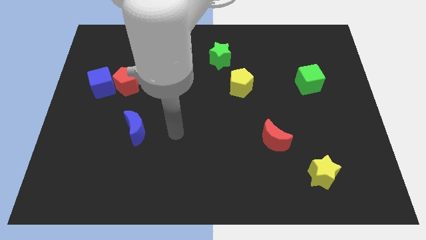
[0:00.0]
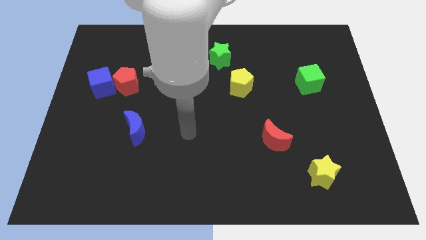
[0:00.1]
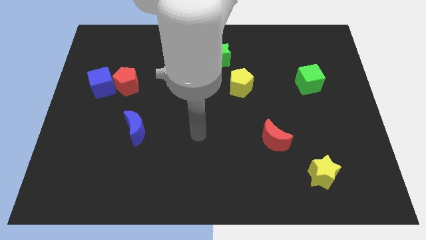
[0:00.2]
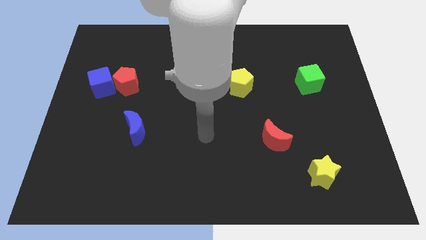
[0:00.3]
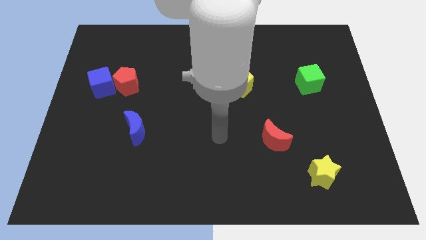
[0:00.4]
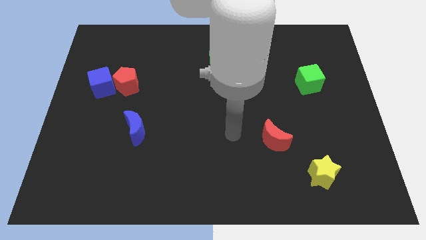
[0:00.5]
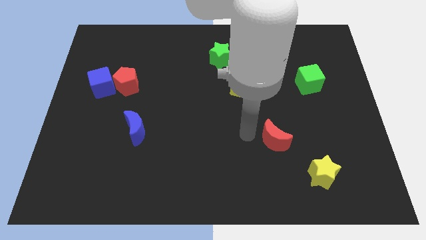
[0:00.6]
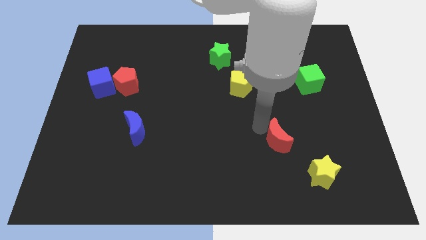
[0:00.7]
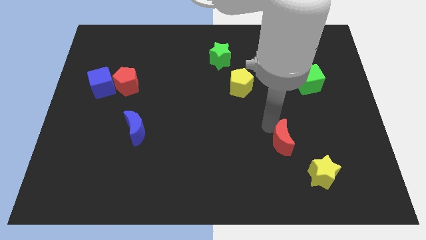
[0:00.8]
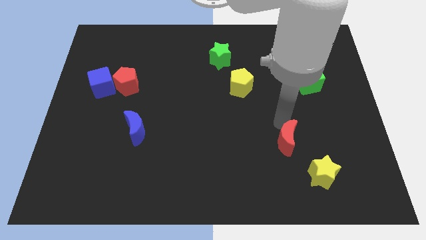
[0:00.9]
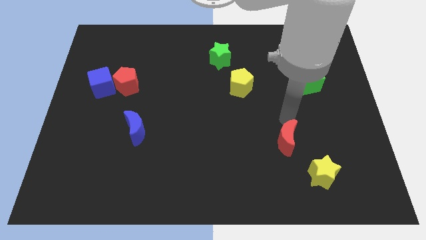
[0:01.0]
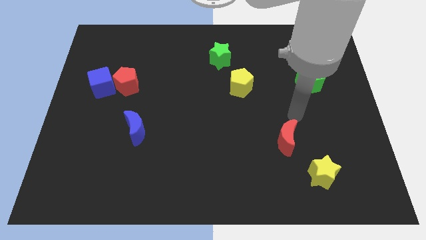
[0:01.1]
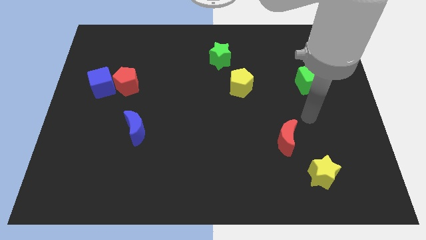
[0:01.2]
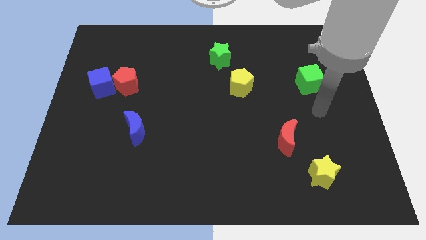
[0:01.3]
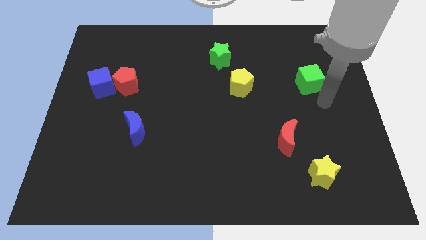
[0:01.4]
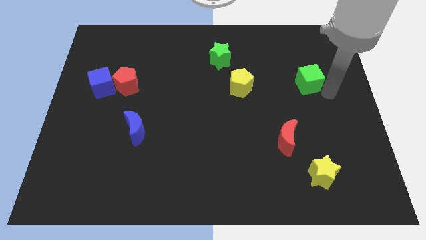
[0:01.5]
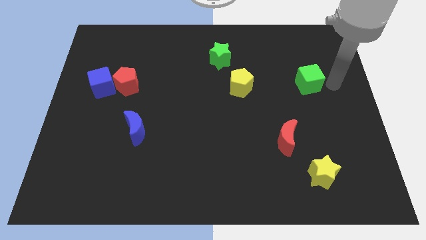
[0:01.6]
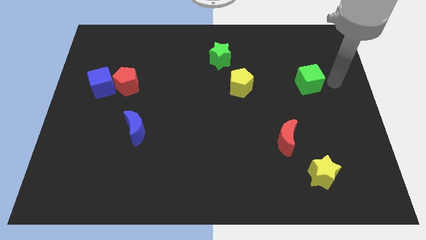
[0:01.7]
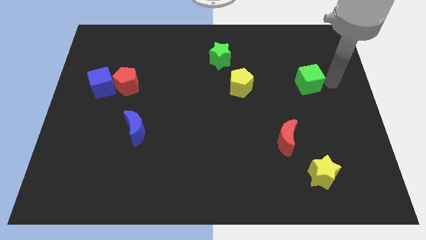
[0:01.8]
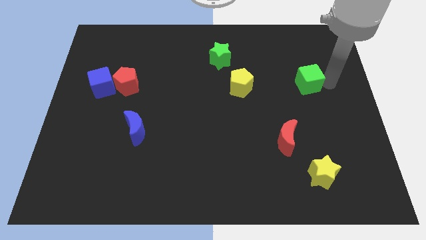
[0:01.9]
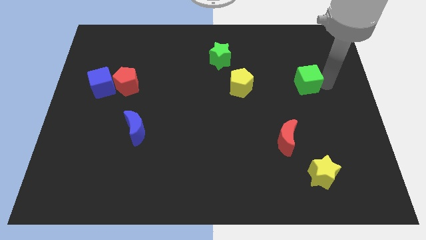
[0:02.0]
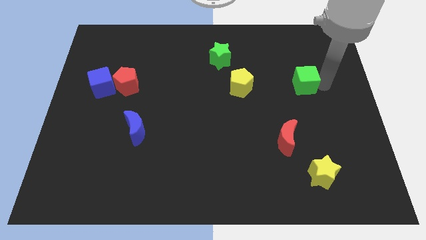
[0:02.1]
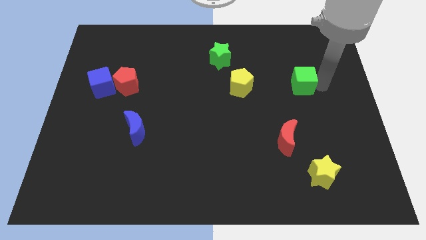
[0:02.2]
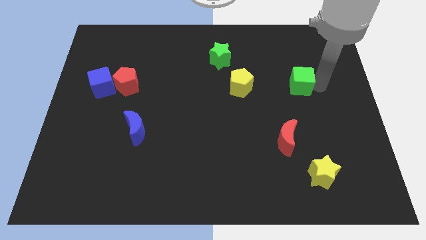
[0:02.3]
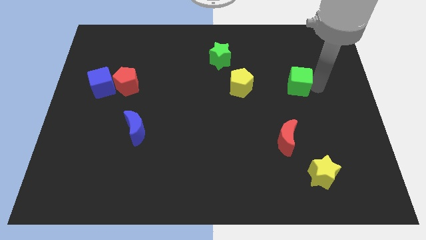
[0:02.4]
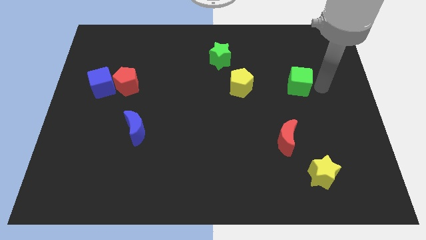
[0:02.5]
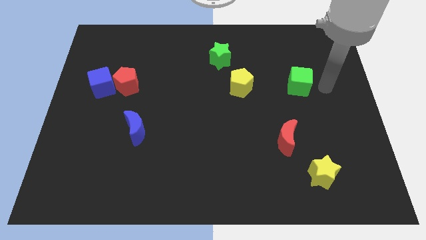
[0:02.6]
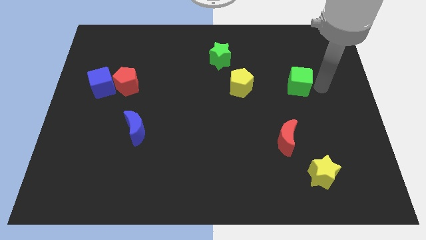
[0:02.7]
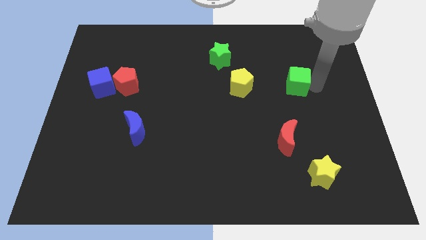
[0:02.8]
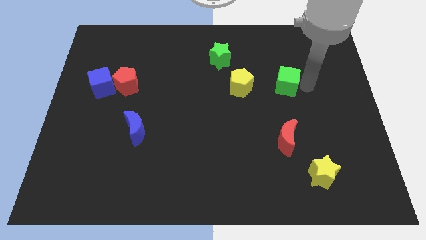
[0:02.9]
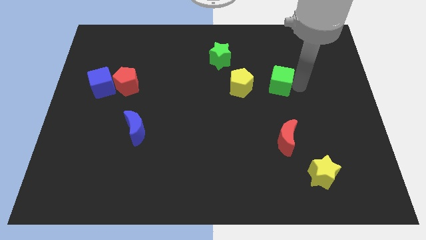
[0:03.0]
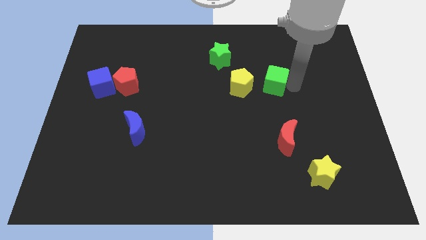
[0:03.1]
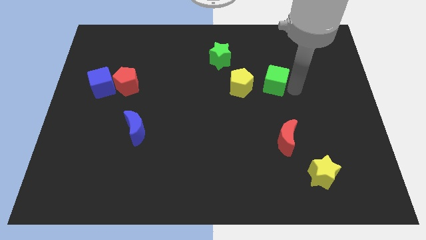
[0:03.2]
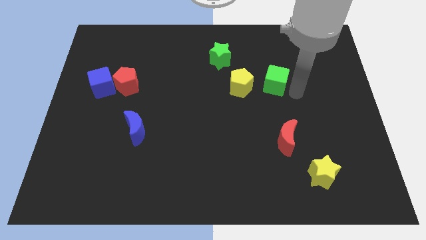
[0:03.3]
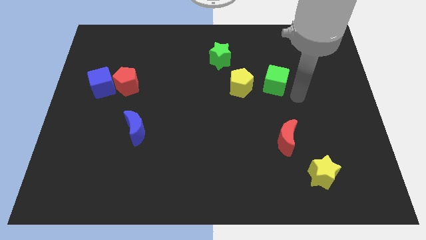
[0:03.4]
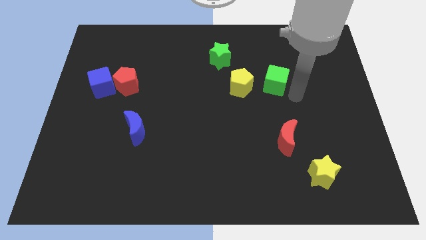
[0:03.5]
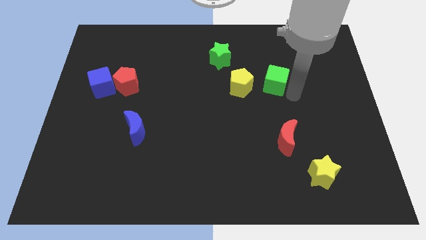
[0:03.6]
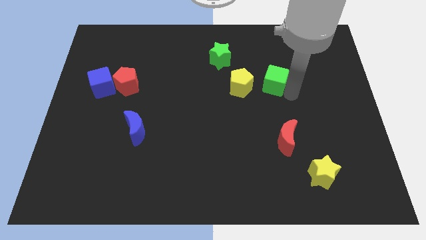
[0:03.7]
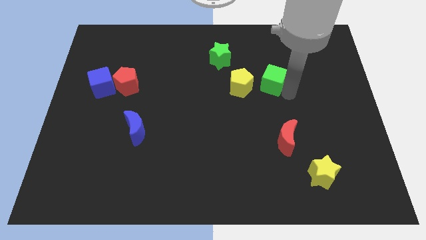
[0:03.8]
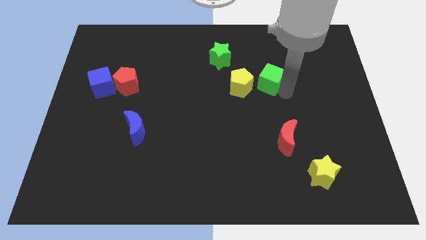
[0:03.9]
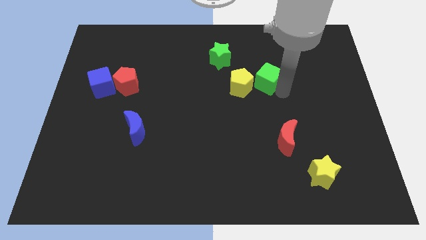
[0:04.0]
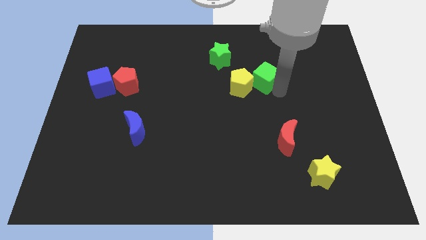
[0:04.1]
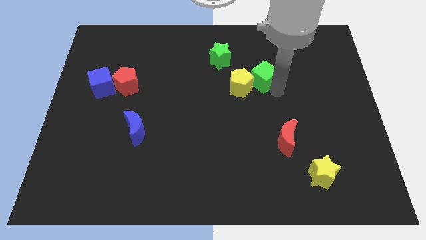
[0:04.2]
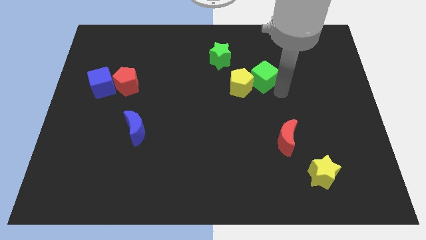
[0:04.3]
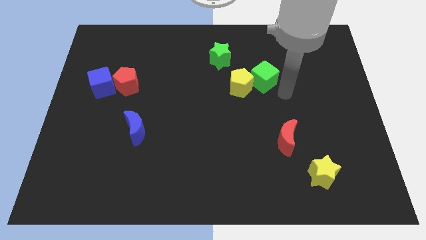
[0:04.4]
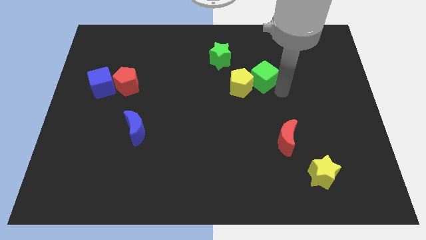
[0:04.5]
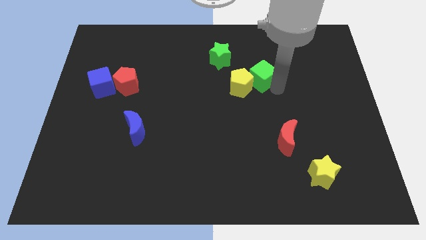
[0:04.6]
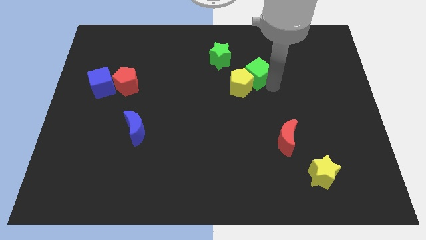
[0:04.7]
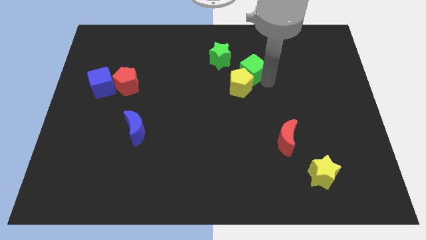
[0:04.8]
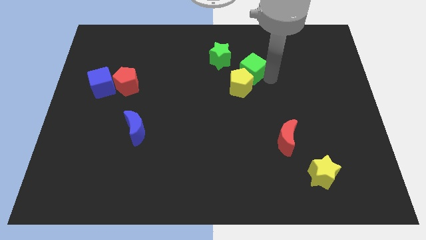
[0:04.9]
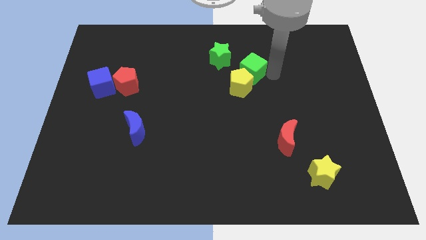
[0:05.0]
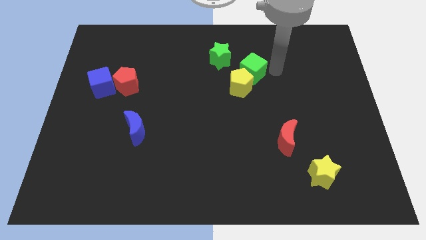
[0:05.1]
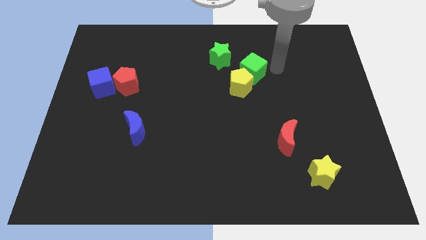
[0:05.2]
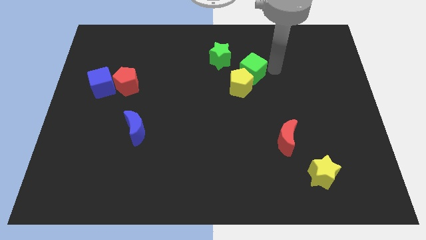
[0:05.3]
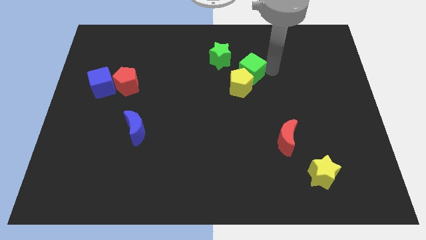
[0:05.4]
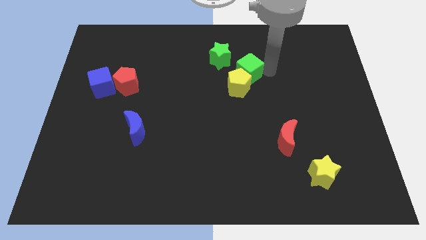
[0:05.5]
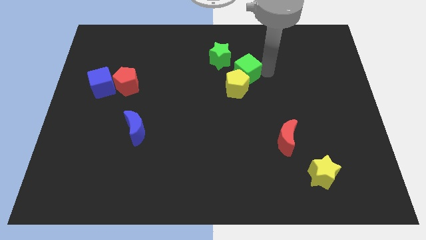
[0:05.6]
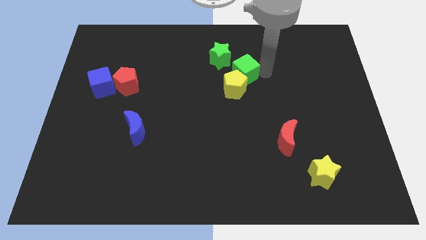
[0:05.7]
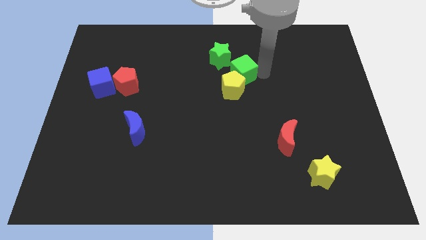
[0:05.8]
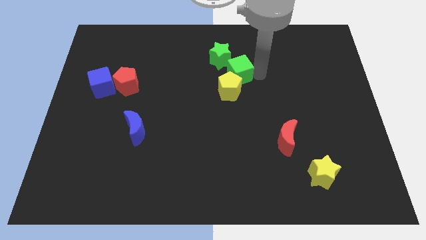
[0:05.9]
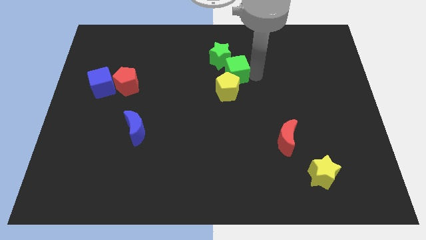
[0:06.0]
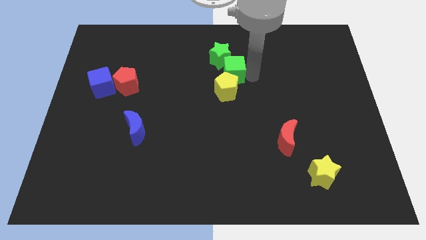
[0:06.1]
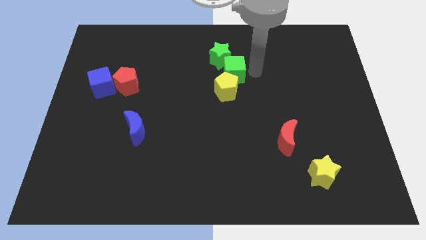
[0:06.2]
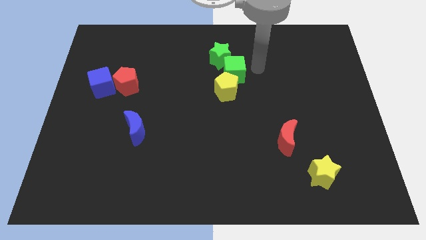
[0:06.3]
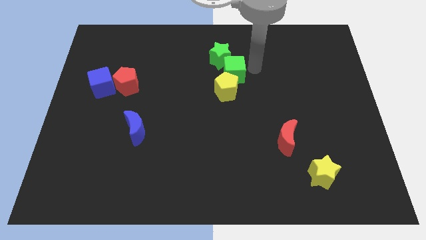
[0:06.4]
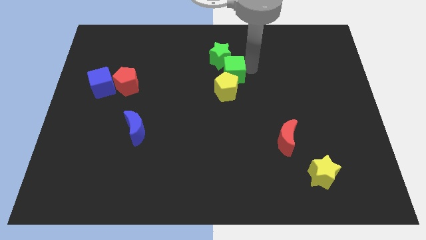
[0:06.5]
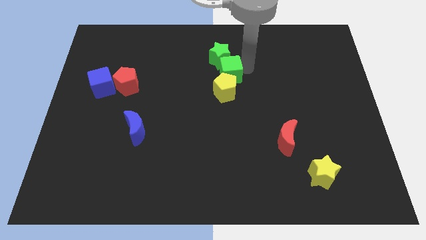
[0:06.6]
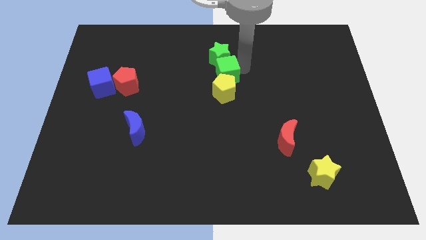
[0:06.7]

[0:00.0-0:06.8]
slide the green cube to the left

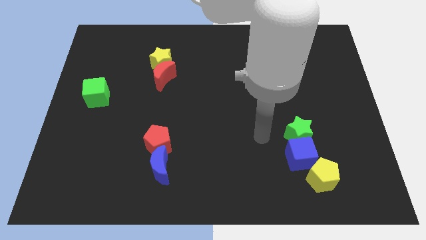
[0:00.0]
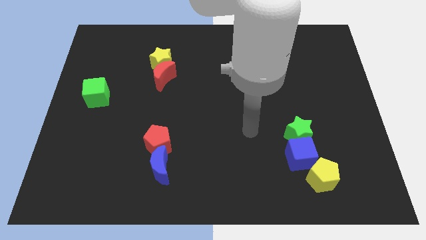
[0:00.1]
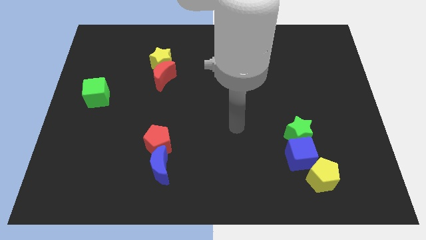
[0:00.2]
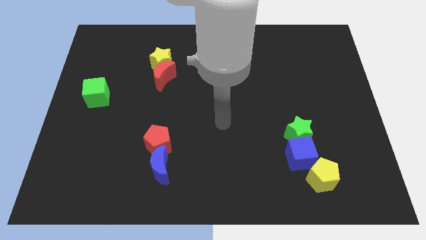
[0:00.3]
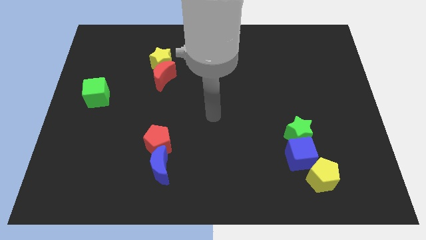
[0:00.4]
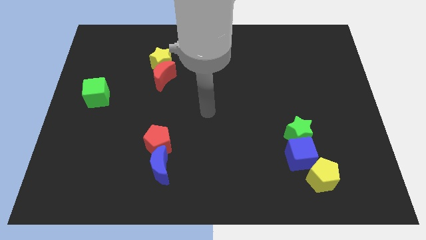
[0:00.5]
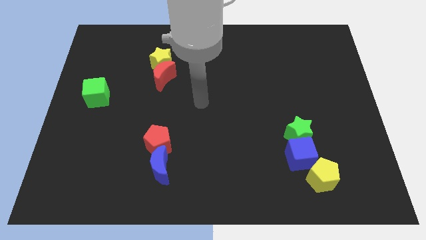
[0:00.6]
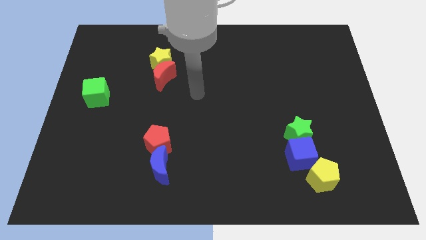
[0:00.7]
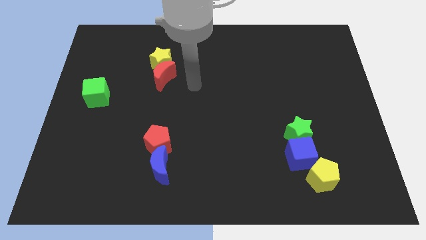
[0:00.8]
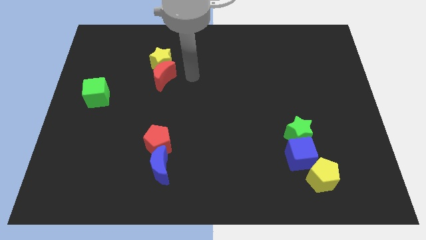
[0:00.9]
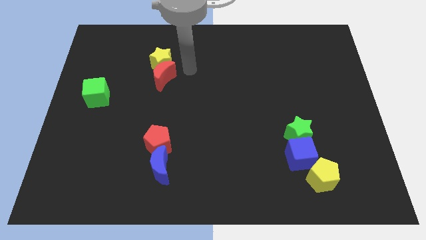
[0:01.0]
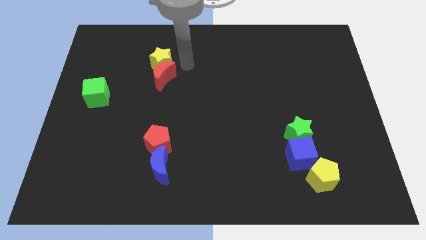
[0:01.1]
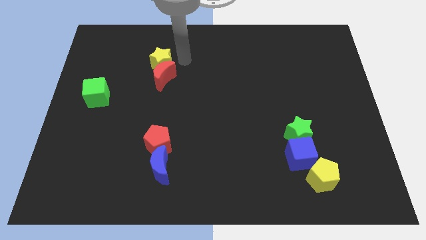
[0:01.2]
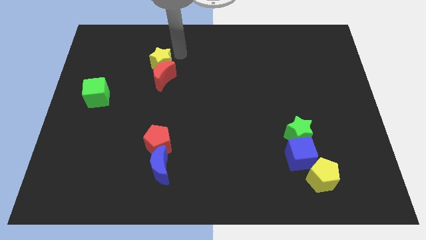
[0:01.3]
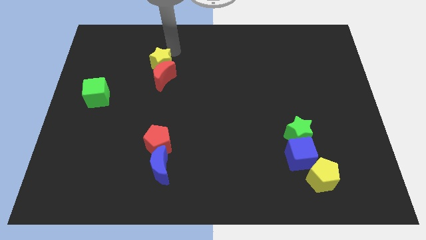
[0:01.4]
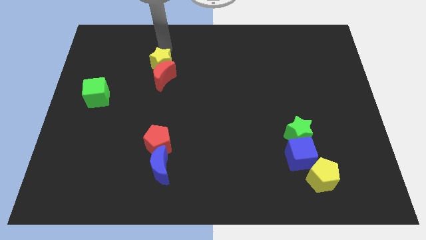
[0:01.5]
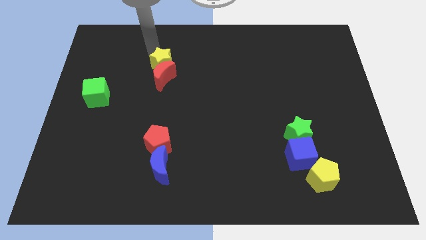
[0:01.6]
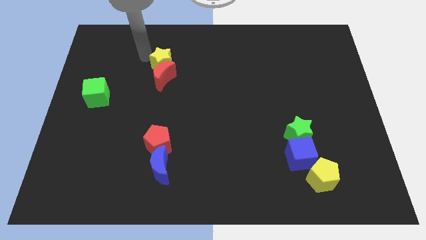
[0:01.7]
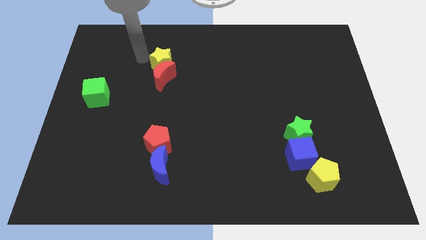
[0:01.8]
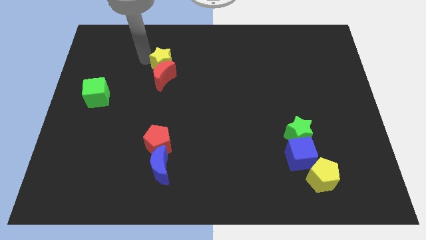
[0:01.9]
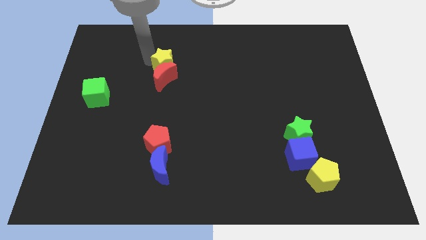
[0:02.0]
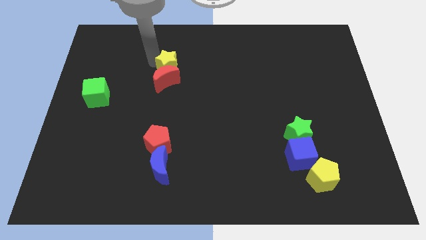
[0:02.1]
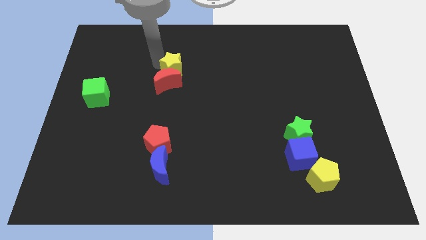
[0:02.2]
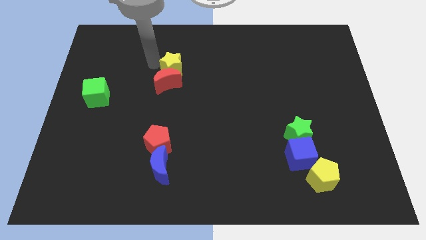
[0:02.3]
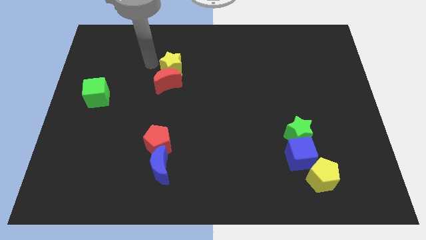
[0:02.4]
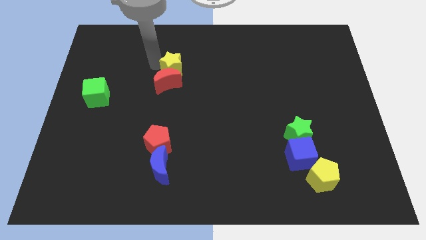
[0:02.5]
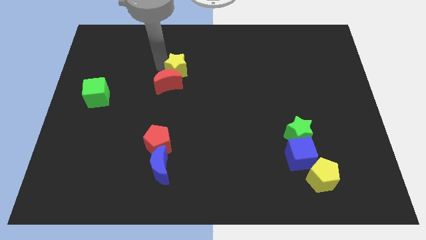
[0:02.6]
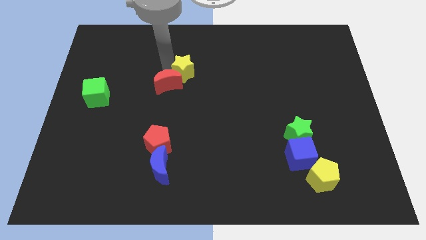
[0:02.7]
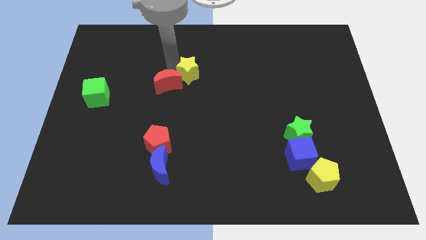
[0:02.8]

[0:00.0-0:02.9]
move the yellow star downwards and then right a little
